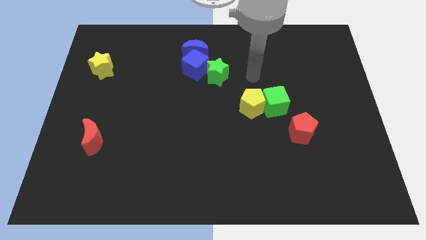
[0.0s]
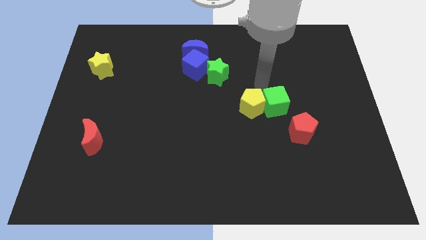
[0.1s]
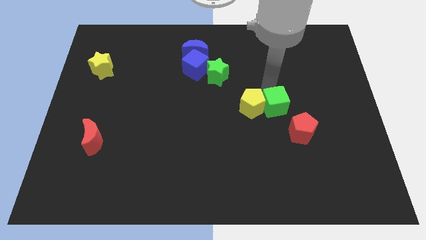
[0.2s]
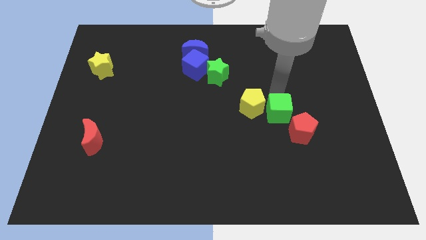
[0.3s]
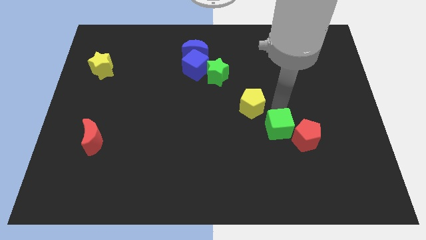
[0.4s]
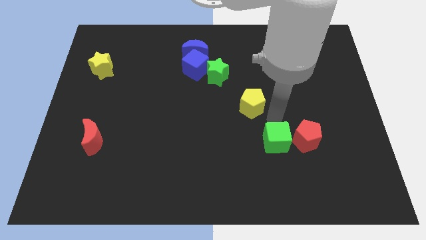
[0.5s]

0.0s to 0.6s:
pull the yellow pentagon apart from the green cube

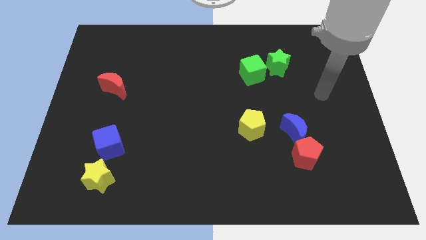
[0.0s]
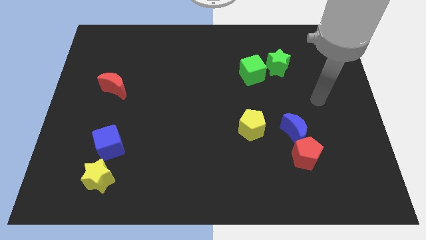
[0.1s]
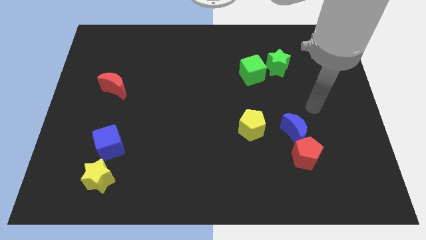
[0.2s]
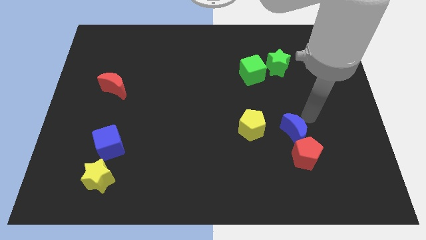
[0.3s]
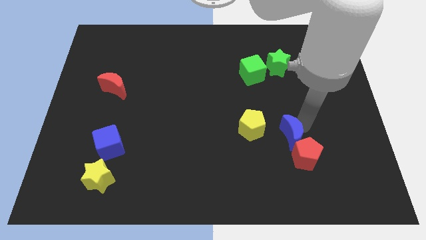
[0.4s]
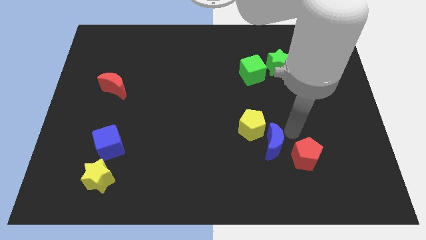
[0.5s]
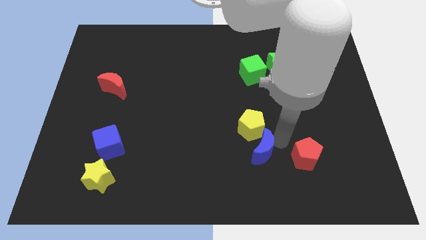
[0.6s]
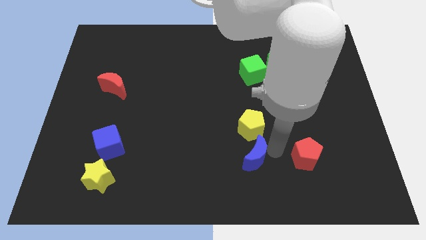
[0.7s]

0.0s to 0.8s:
move the red pentagon away from the blue moon

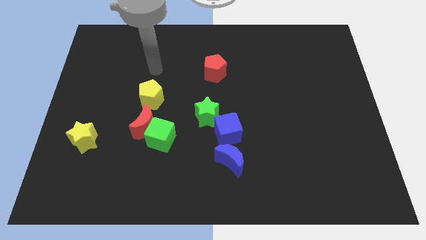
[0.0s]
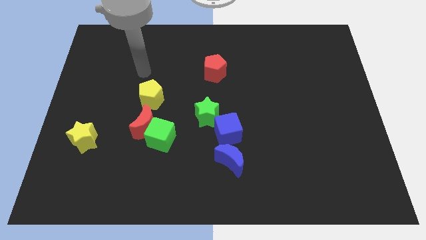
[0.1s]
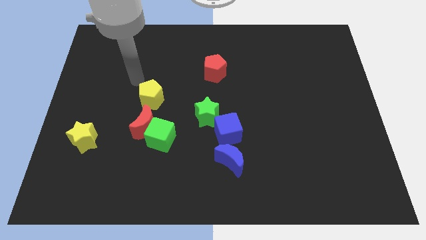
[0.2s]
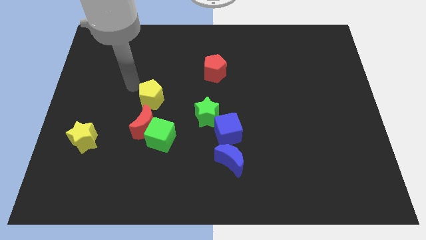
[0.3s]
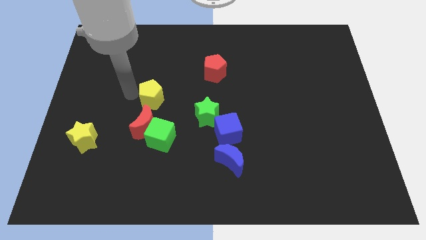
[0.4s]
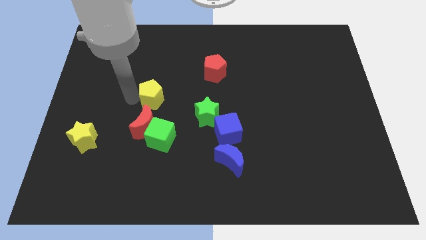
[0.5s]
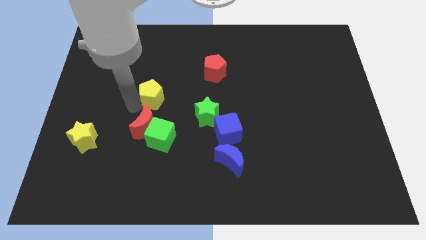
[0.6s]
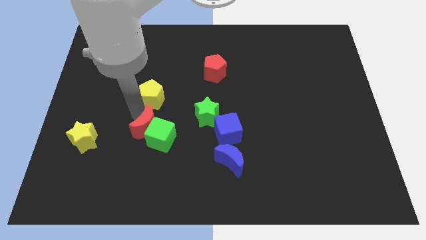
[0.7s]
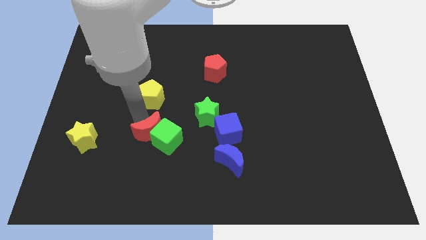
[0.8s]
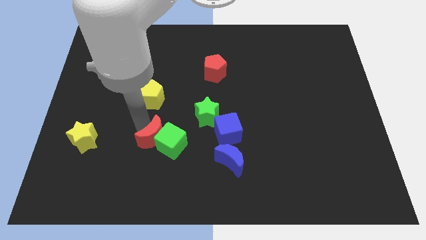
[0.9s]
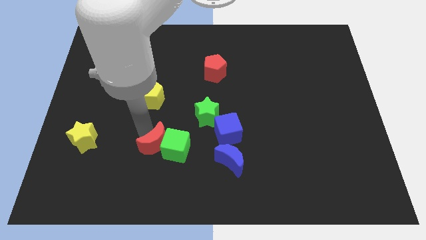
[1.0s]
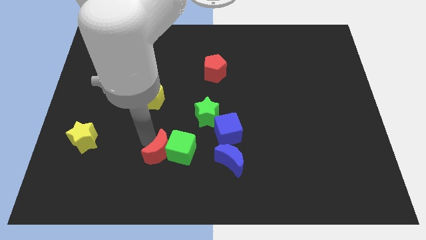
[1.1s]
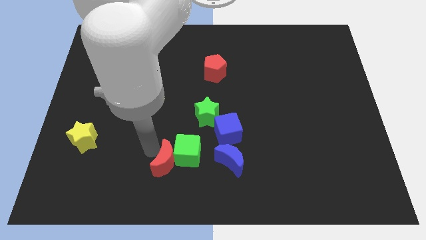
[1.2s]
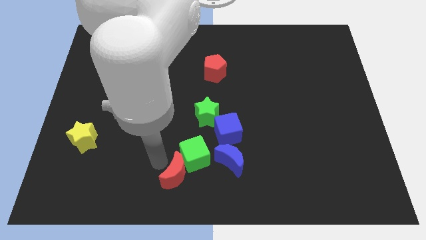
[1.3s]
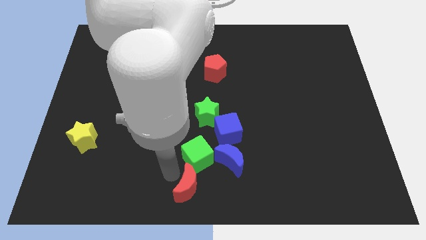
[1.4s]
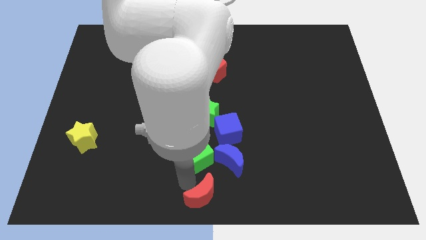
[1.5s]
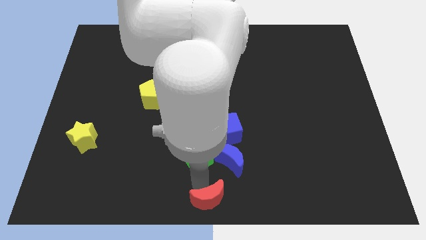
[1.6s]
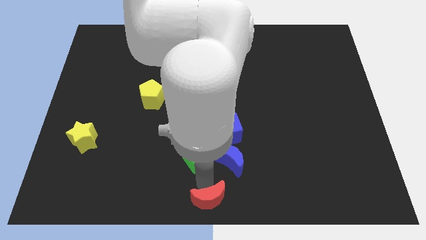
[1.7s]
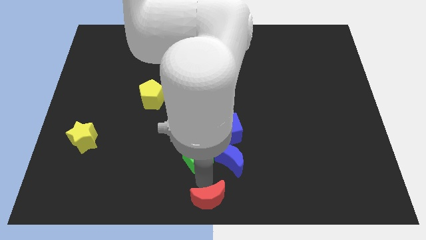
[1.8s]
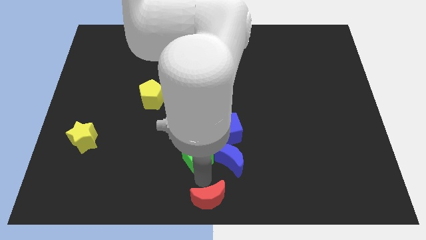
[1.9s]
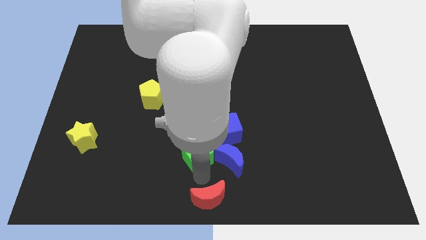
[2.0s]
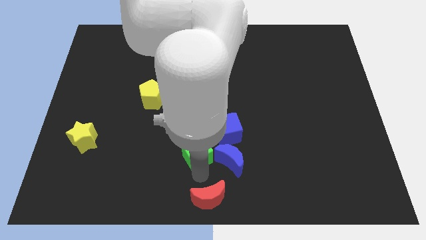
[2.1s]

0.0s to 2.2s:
move the green cube away from the red moon

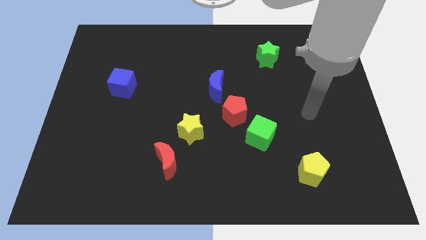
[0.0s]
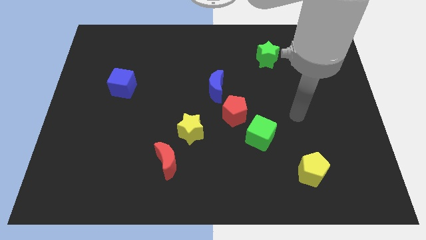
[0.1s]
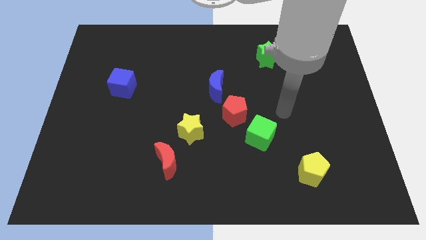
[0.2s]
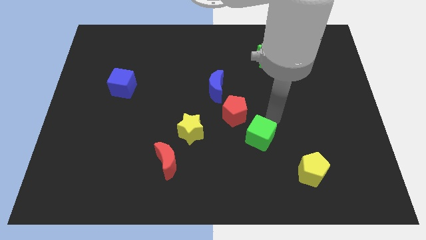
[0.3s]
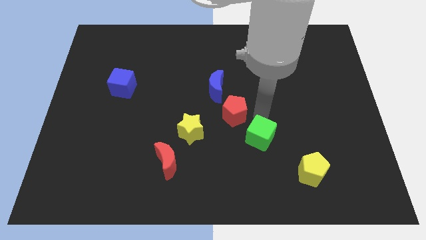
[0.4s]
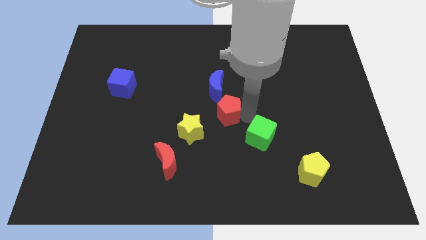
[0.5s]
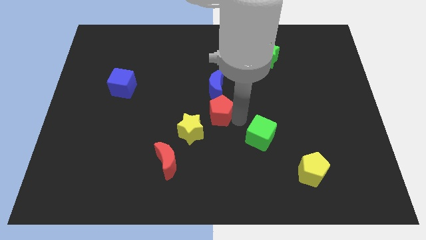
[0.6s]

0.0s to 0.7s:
pull the green cube apart from the red pentagon

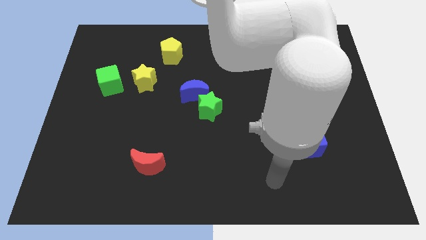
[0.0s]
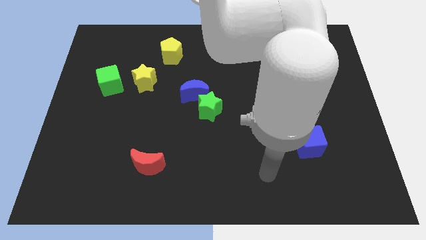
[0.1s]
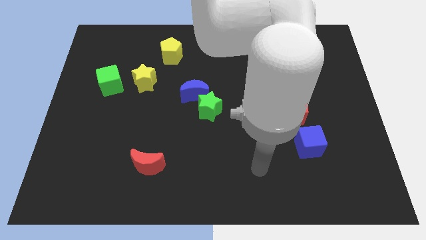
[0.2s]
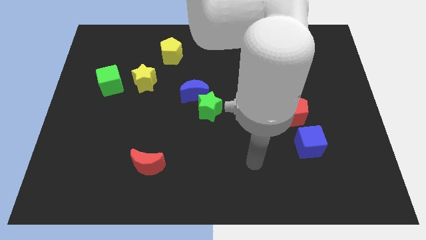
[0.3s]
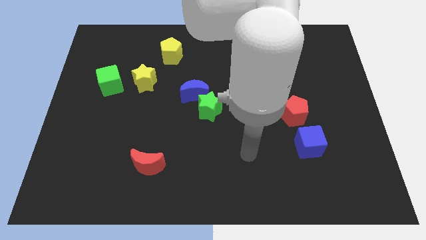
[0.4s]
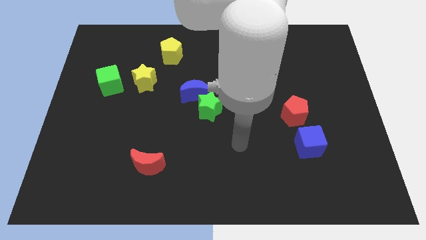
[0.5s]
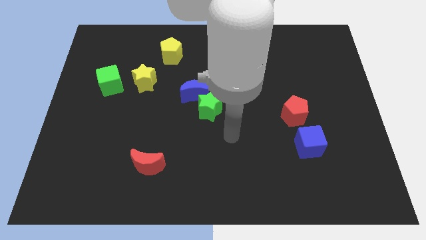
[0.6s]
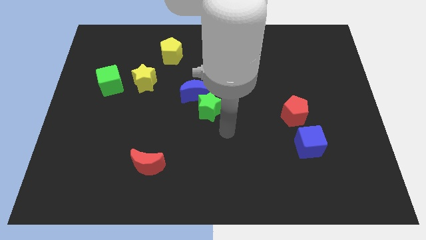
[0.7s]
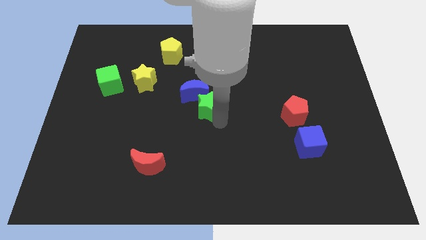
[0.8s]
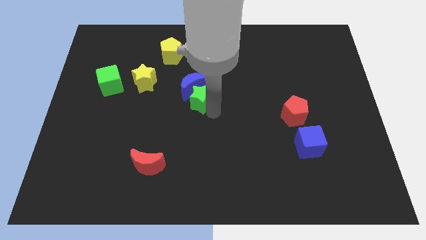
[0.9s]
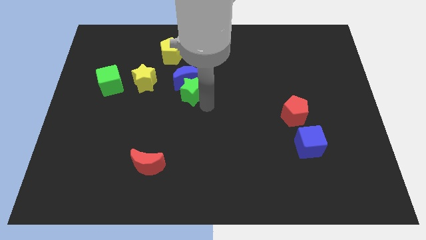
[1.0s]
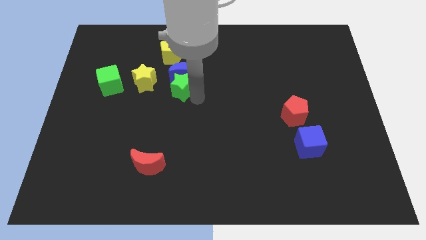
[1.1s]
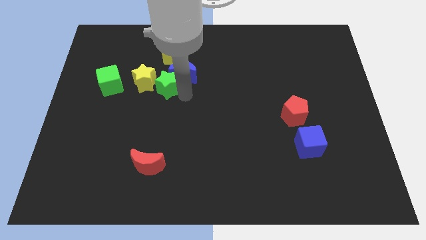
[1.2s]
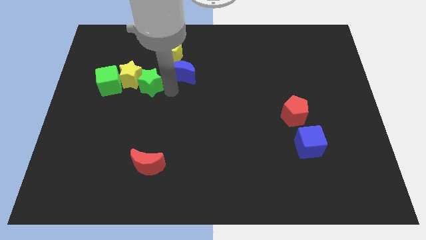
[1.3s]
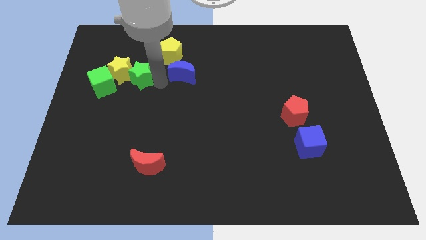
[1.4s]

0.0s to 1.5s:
separate the blue moon from the green star

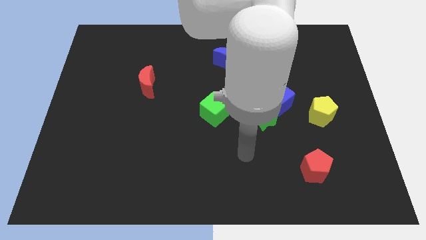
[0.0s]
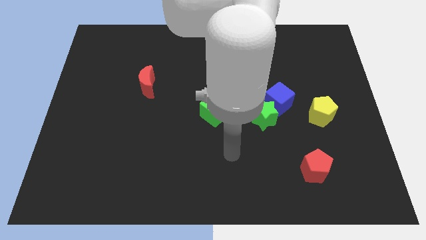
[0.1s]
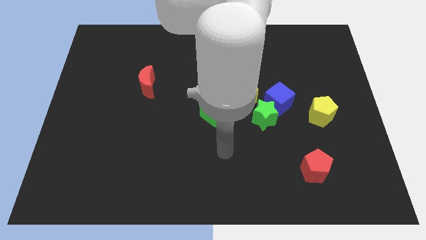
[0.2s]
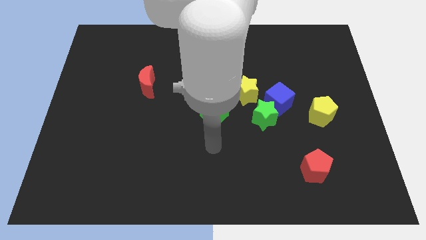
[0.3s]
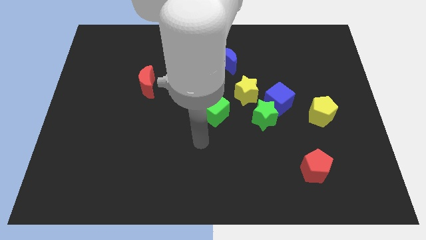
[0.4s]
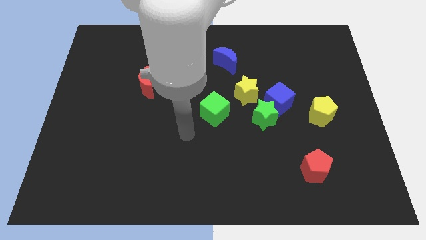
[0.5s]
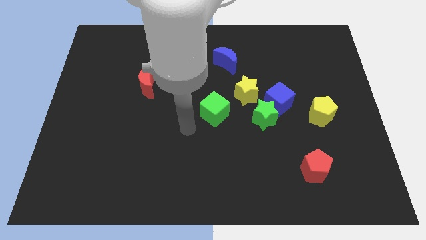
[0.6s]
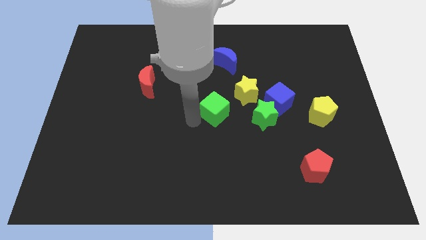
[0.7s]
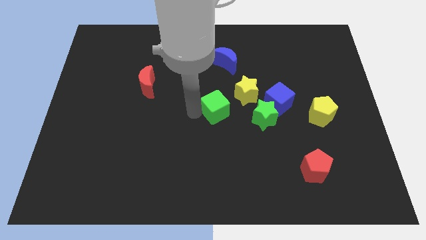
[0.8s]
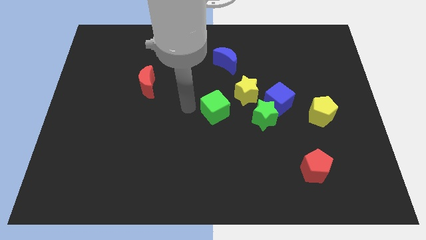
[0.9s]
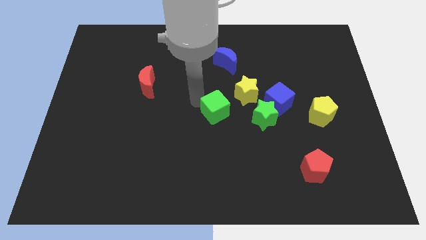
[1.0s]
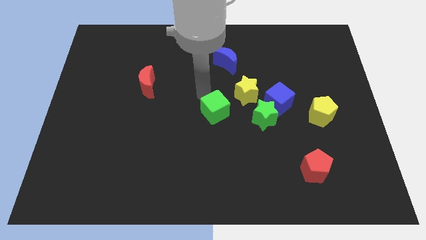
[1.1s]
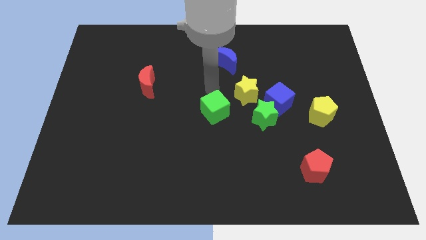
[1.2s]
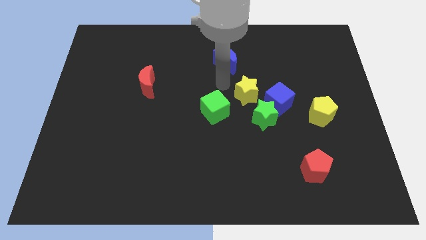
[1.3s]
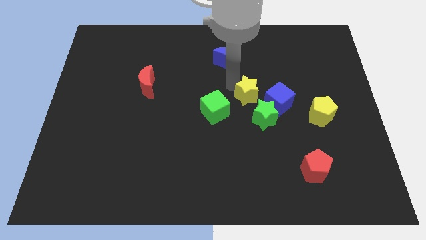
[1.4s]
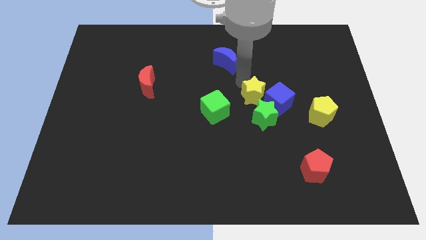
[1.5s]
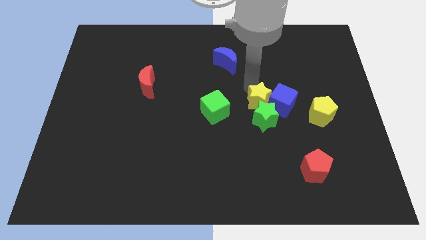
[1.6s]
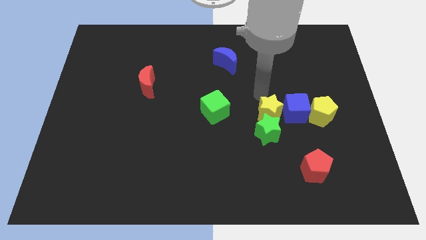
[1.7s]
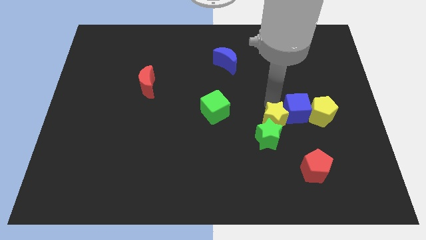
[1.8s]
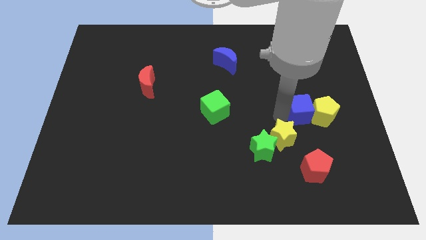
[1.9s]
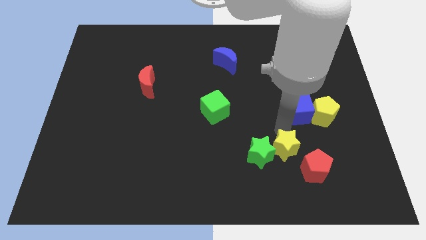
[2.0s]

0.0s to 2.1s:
separate the green star from the blue cube and yellow star

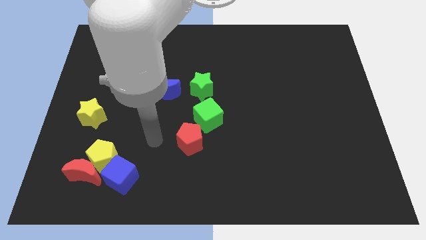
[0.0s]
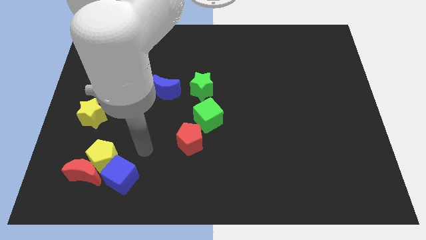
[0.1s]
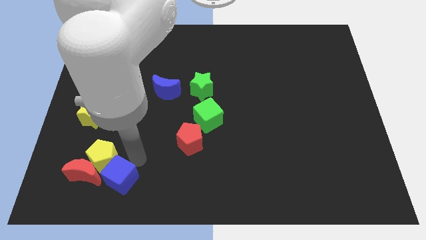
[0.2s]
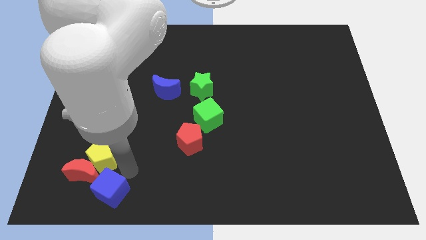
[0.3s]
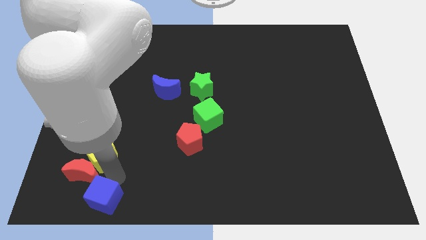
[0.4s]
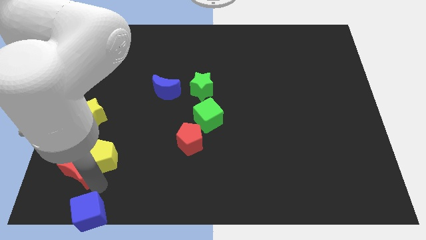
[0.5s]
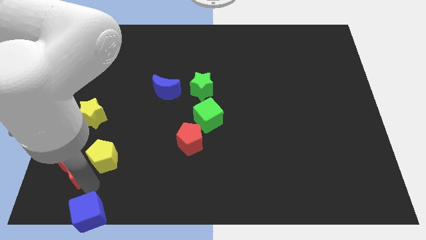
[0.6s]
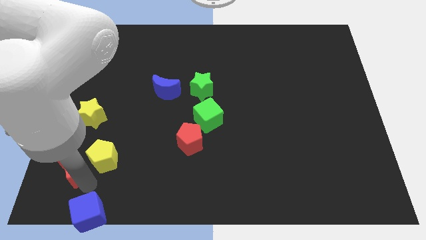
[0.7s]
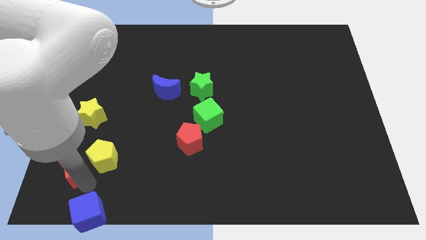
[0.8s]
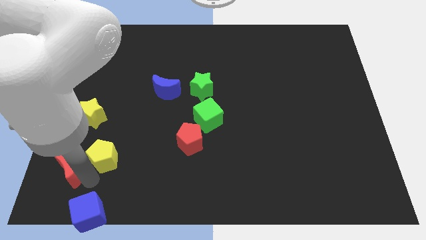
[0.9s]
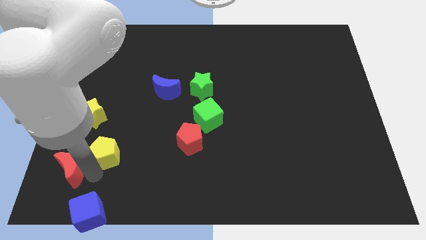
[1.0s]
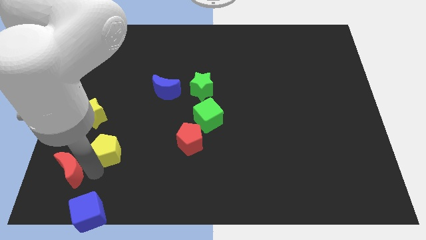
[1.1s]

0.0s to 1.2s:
move the yellow pentagon away from the red moon and blue cube

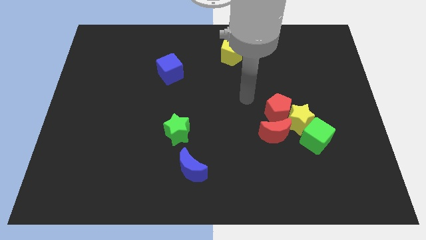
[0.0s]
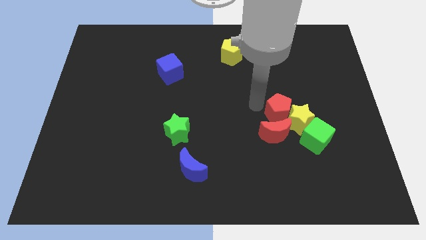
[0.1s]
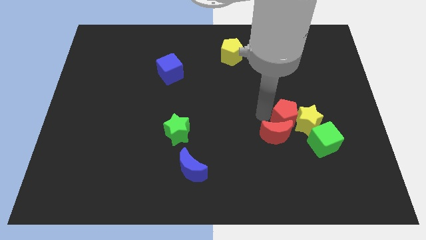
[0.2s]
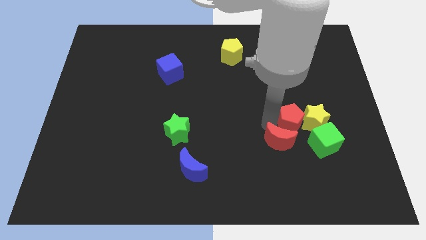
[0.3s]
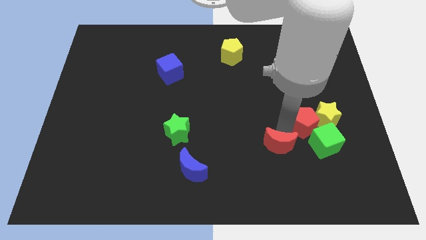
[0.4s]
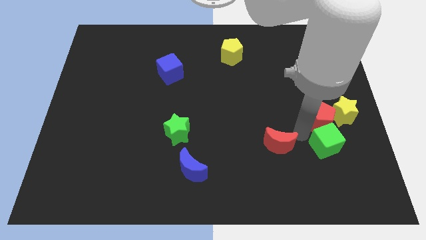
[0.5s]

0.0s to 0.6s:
move the yellow star away from the group
